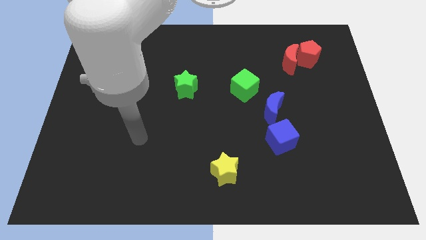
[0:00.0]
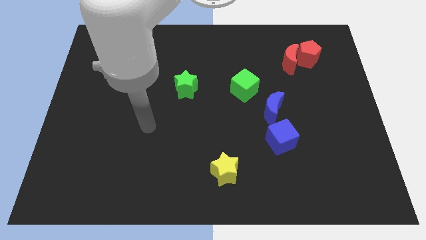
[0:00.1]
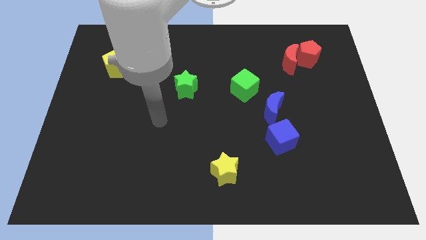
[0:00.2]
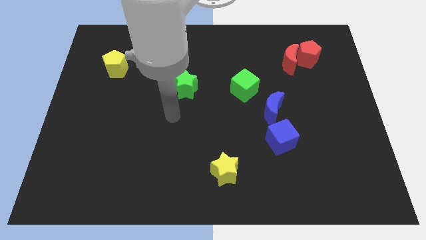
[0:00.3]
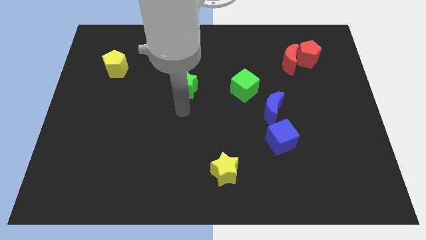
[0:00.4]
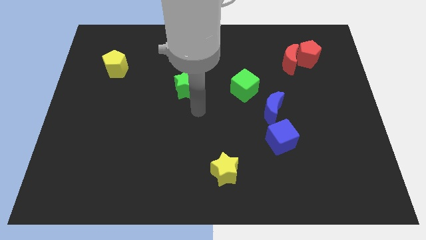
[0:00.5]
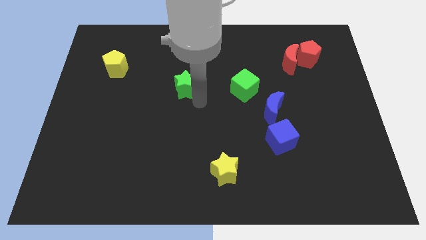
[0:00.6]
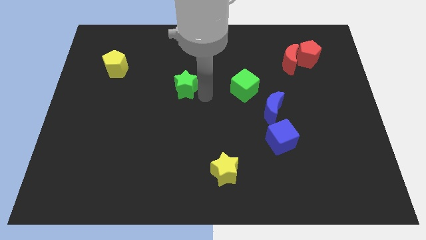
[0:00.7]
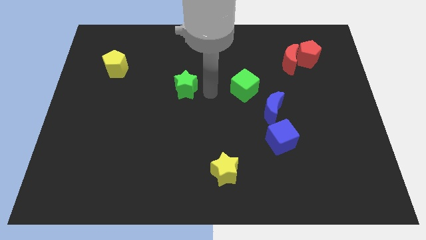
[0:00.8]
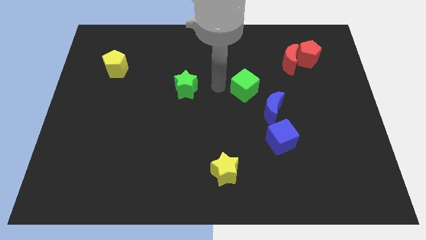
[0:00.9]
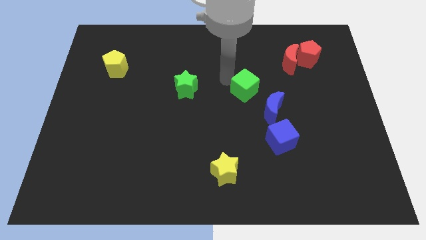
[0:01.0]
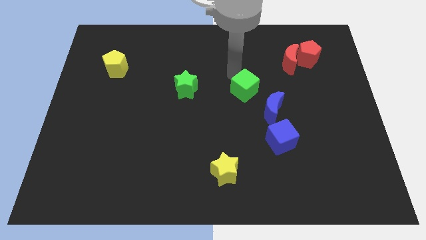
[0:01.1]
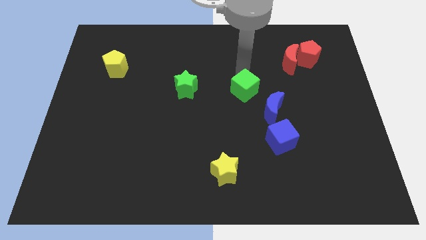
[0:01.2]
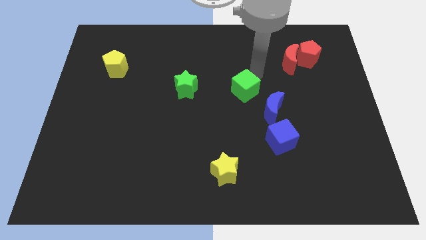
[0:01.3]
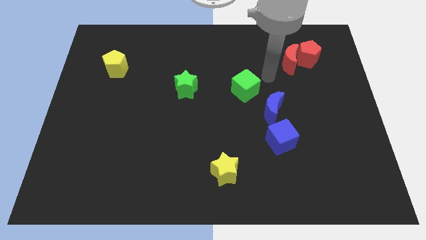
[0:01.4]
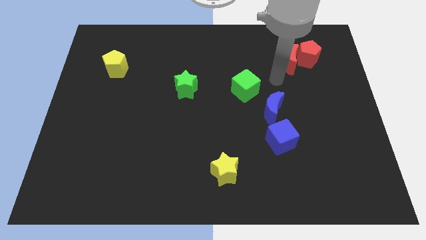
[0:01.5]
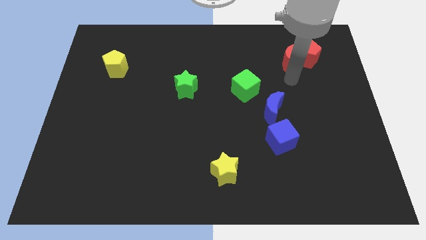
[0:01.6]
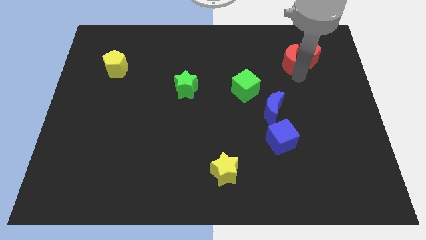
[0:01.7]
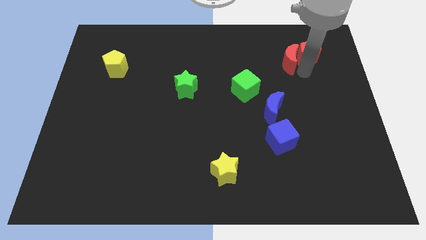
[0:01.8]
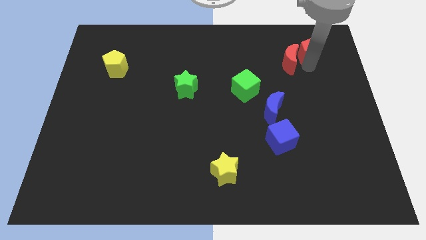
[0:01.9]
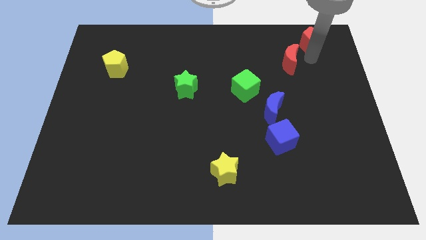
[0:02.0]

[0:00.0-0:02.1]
pull the red moon apart from the red pentagon

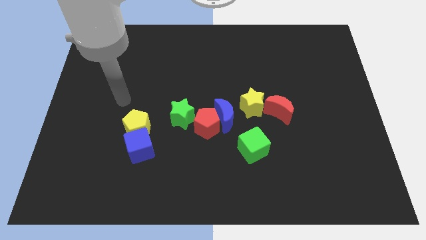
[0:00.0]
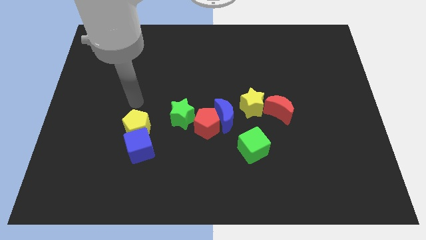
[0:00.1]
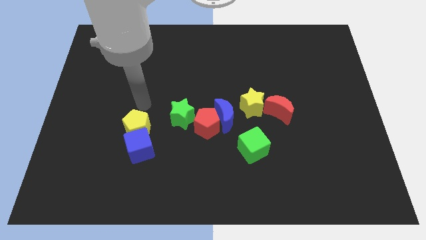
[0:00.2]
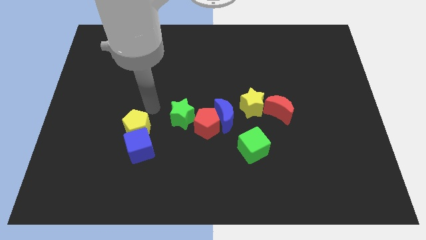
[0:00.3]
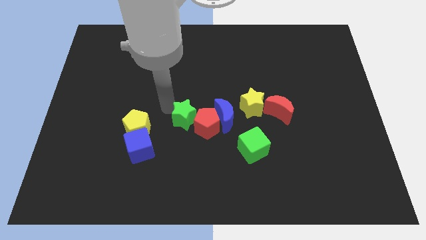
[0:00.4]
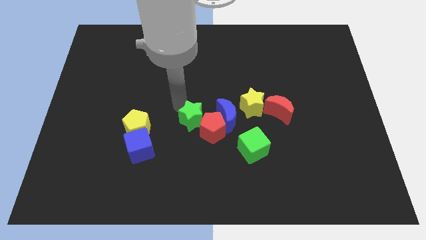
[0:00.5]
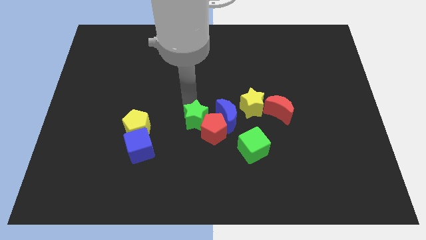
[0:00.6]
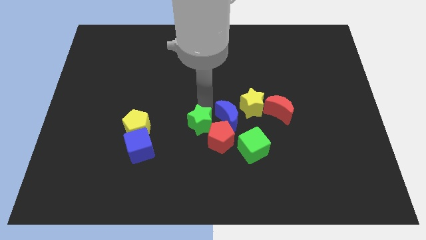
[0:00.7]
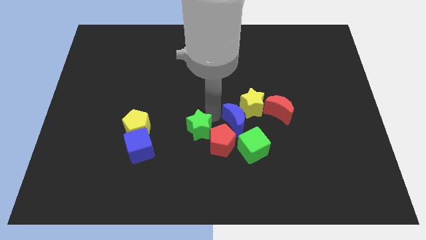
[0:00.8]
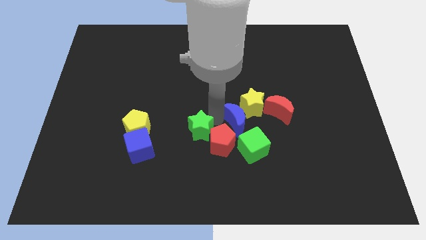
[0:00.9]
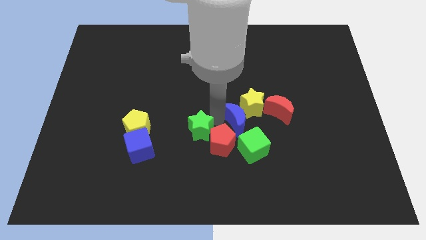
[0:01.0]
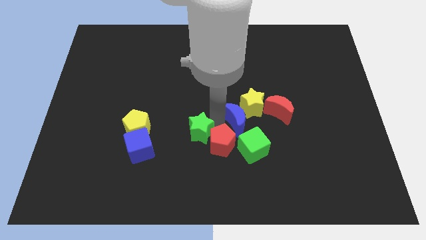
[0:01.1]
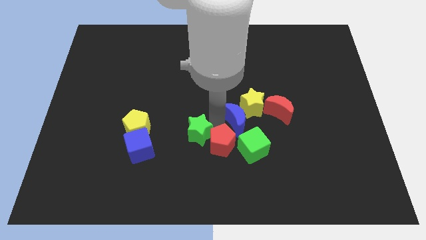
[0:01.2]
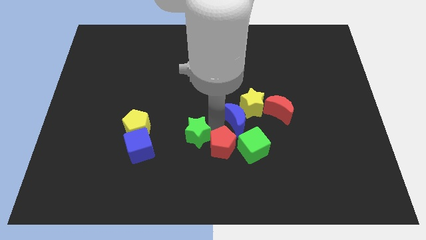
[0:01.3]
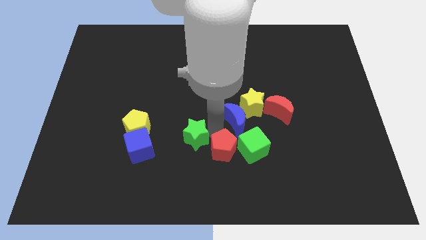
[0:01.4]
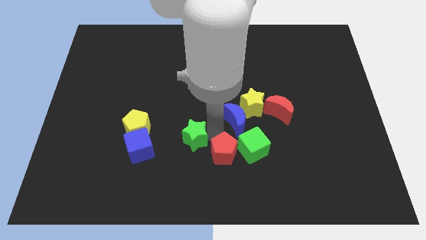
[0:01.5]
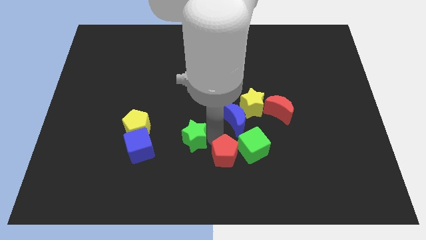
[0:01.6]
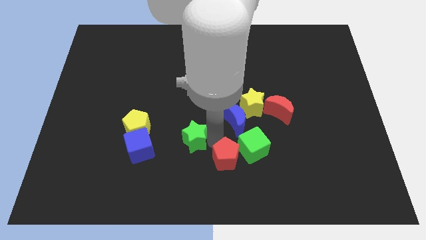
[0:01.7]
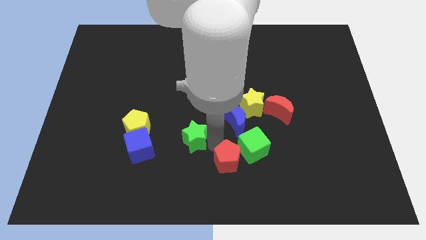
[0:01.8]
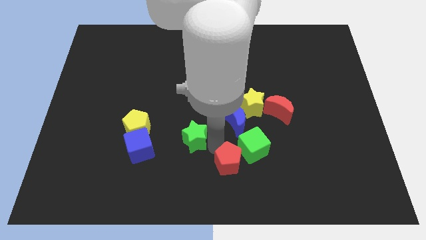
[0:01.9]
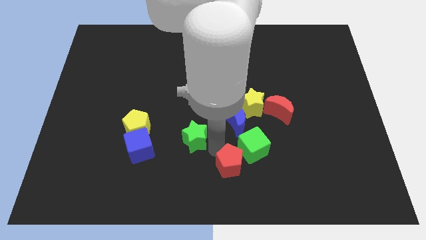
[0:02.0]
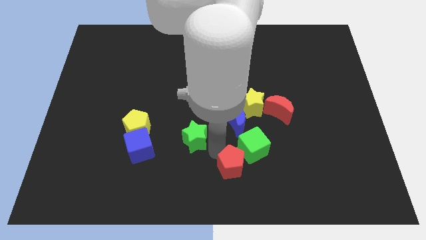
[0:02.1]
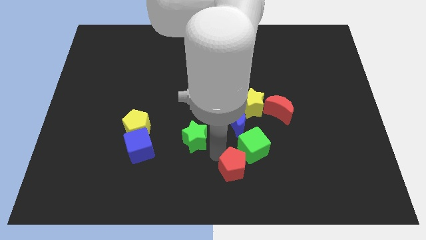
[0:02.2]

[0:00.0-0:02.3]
separate the red pentagon from the blue moon and green star

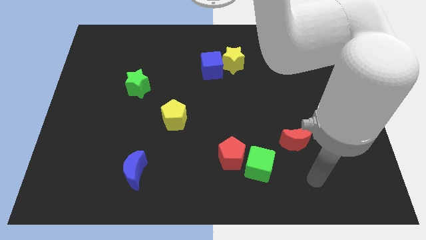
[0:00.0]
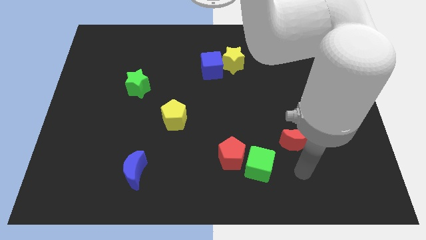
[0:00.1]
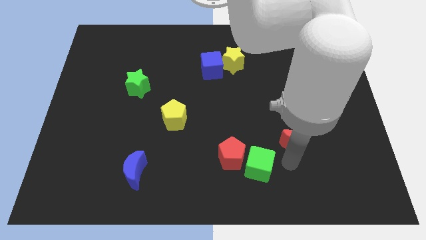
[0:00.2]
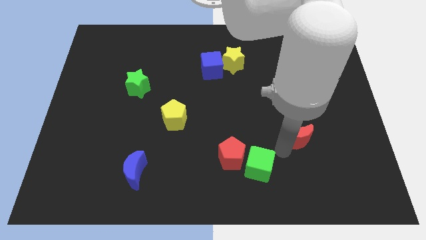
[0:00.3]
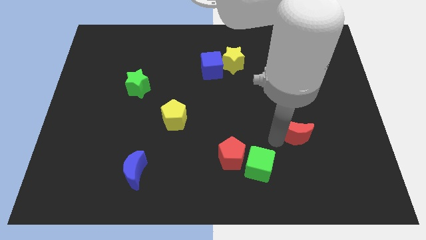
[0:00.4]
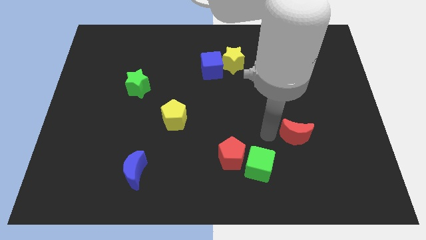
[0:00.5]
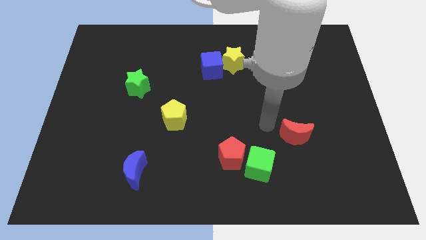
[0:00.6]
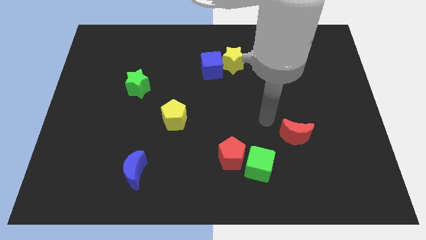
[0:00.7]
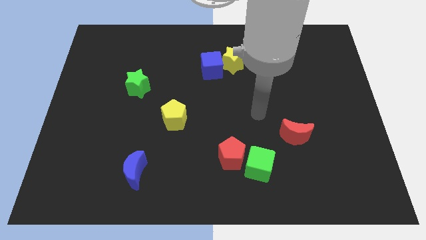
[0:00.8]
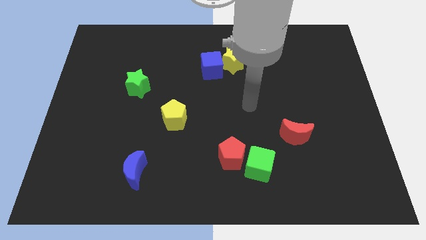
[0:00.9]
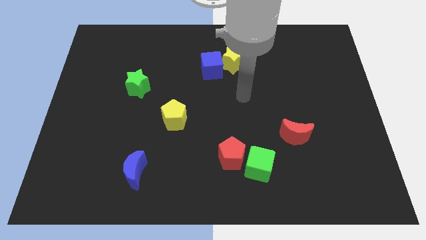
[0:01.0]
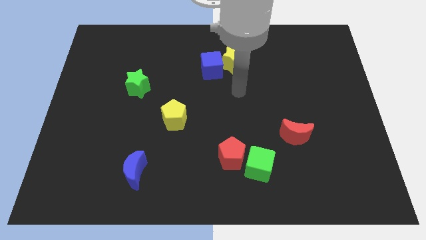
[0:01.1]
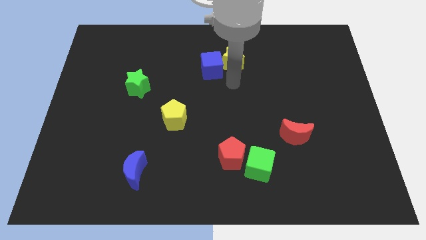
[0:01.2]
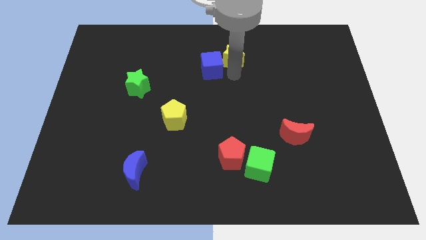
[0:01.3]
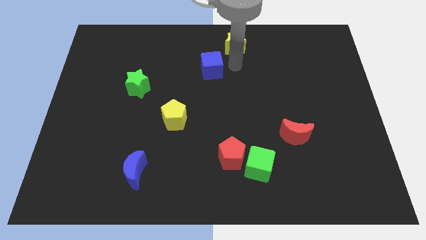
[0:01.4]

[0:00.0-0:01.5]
separate the blue cube from the yellow star

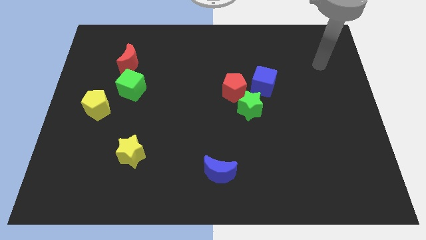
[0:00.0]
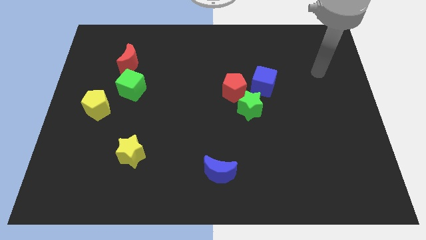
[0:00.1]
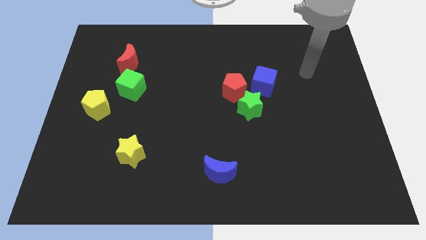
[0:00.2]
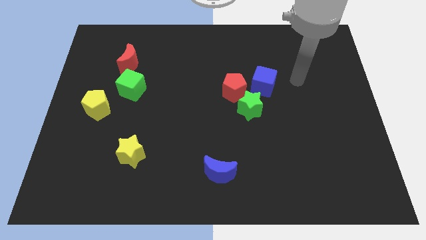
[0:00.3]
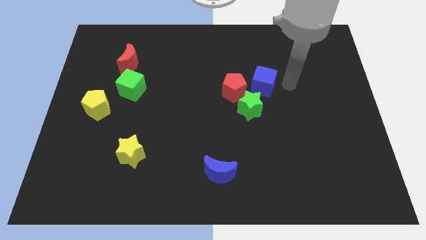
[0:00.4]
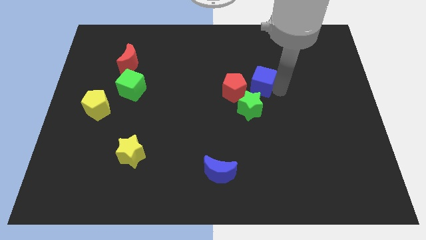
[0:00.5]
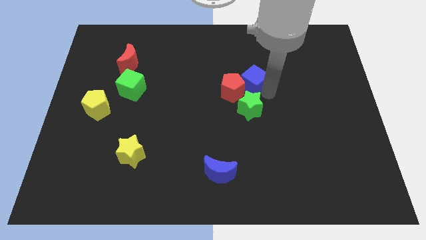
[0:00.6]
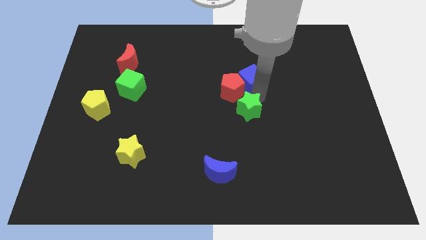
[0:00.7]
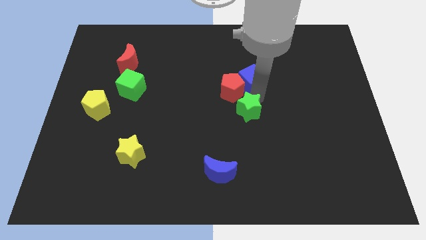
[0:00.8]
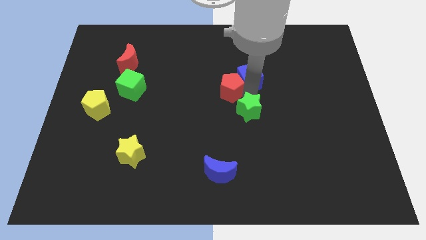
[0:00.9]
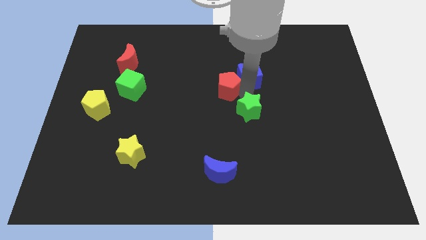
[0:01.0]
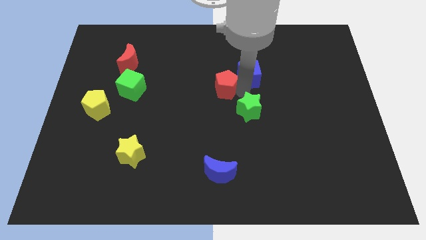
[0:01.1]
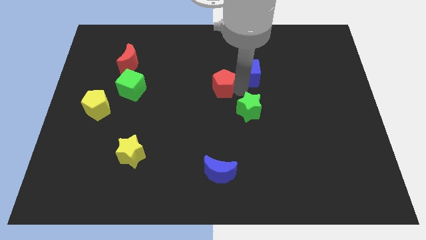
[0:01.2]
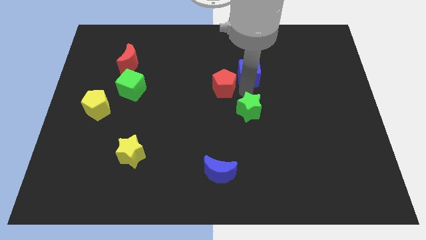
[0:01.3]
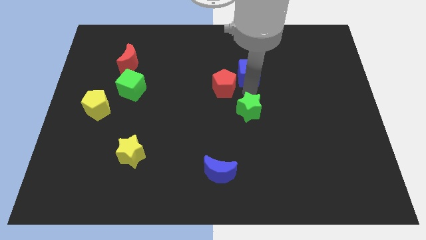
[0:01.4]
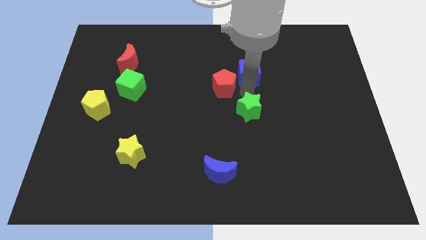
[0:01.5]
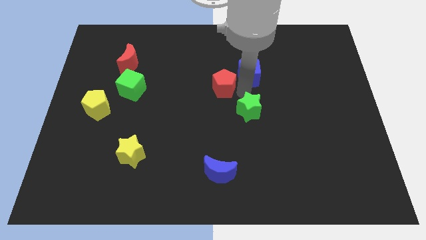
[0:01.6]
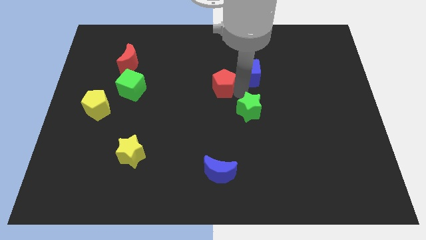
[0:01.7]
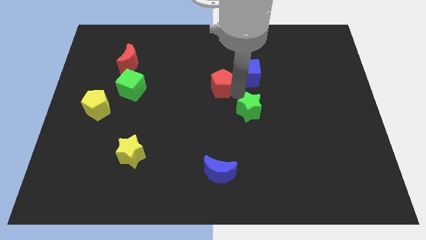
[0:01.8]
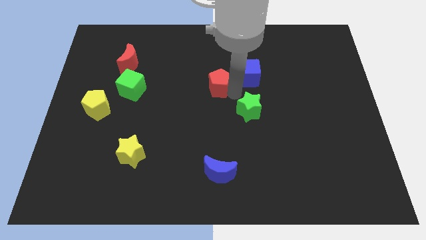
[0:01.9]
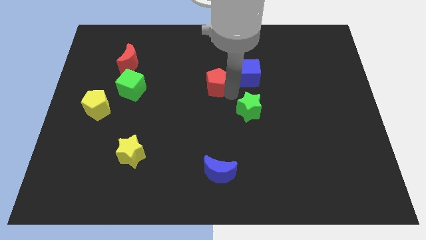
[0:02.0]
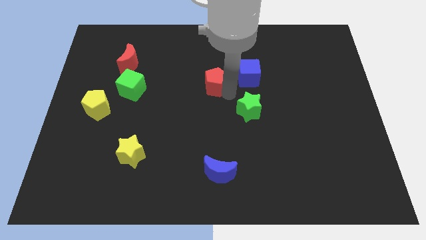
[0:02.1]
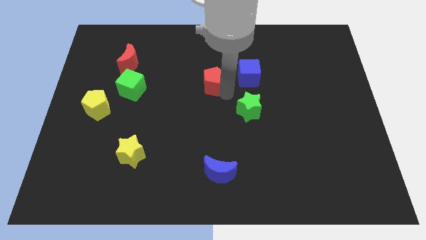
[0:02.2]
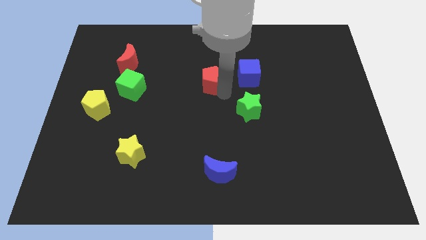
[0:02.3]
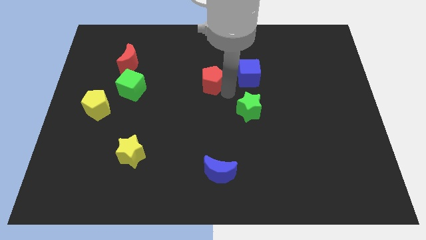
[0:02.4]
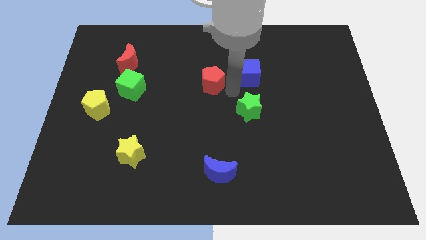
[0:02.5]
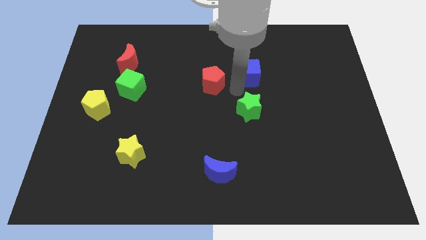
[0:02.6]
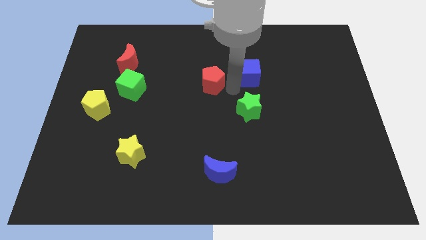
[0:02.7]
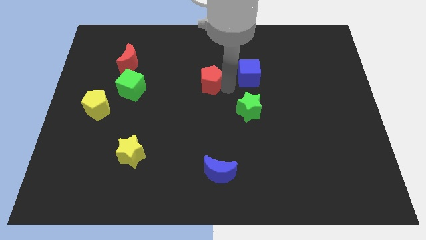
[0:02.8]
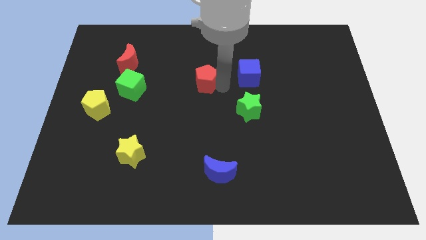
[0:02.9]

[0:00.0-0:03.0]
pull the red pentagon apart from the green star and blue cube

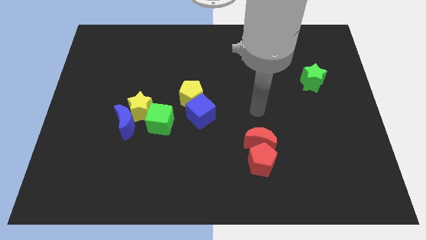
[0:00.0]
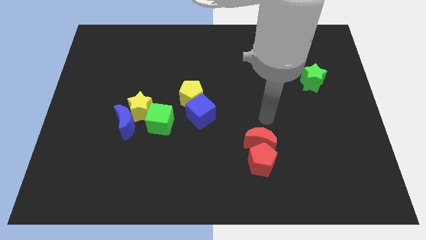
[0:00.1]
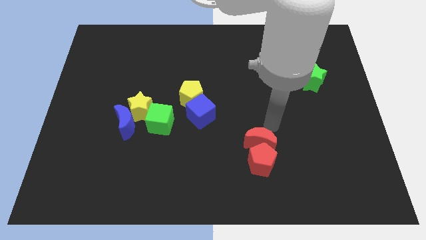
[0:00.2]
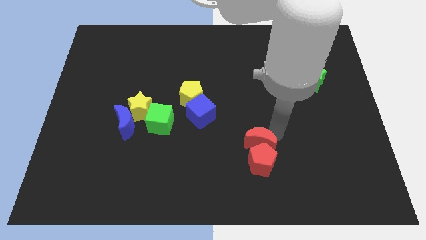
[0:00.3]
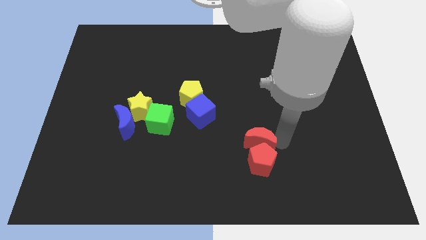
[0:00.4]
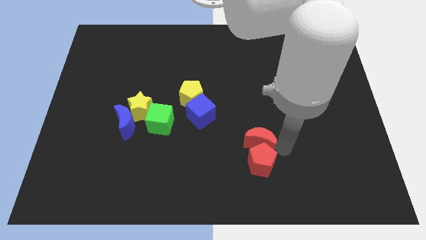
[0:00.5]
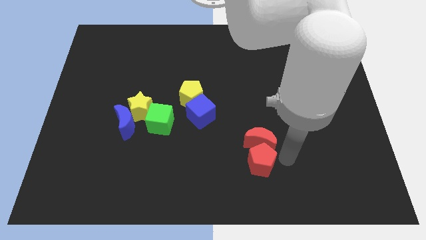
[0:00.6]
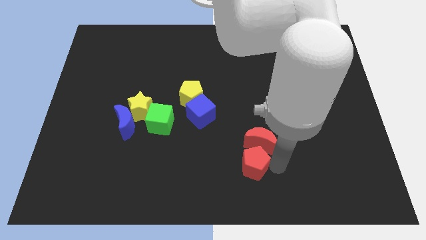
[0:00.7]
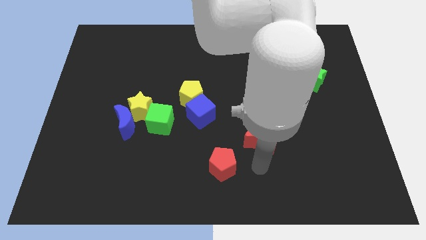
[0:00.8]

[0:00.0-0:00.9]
separate the red moon from the red pentagon
